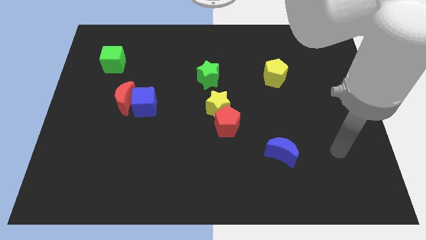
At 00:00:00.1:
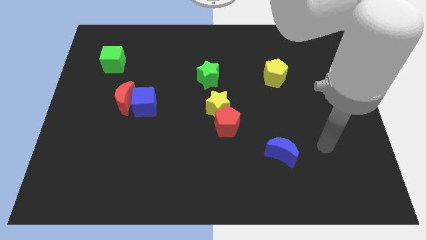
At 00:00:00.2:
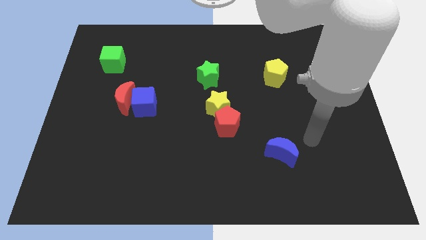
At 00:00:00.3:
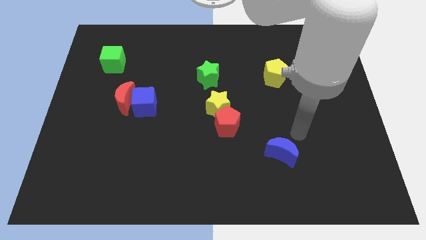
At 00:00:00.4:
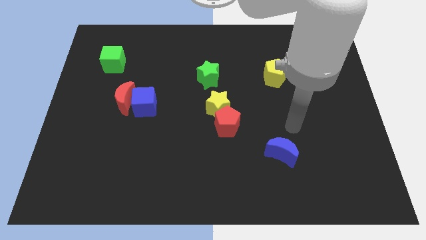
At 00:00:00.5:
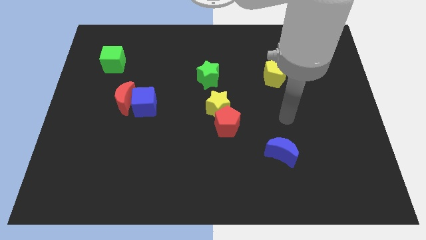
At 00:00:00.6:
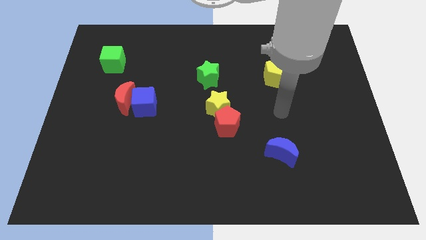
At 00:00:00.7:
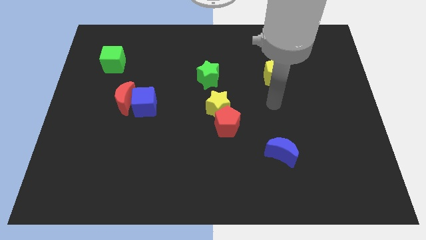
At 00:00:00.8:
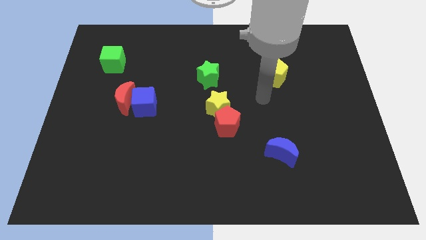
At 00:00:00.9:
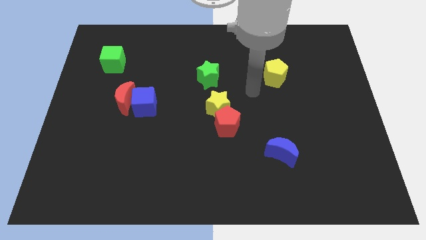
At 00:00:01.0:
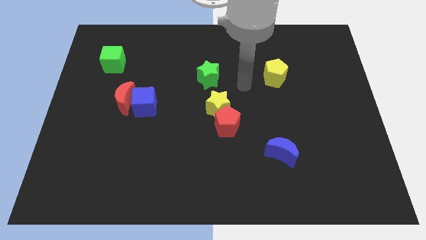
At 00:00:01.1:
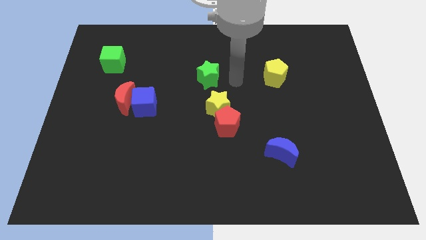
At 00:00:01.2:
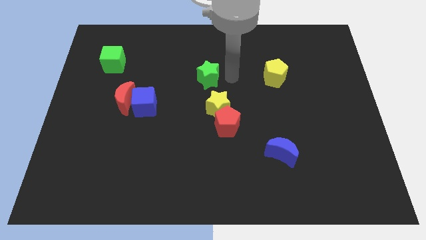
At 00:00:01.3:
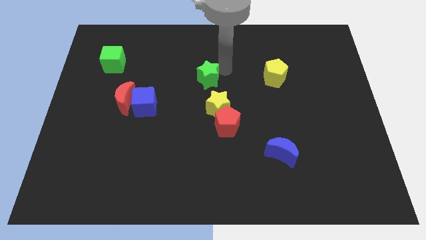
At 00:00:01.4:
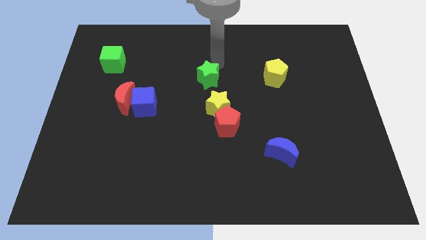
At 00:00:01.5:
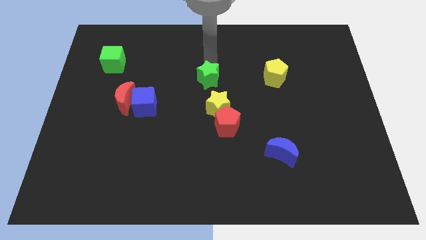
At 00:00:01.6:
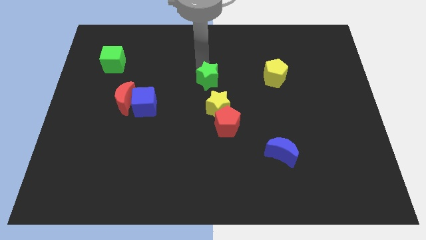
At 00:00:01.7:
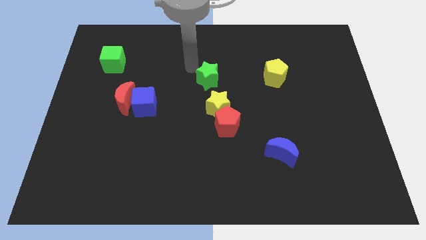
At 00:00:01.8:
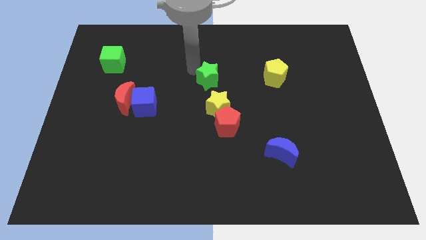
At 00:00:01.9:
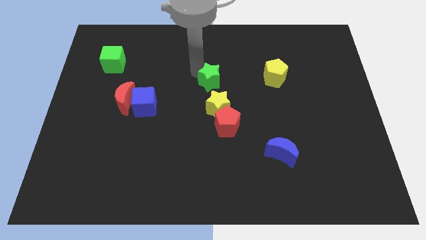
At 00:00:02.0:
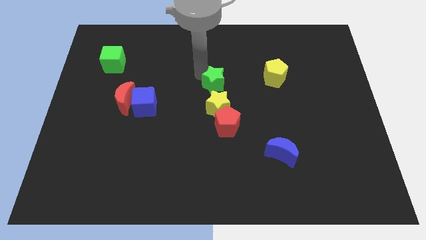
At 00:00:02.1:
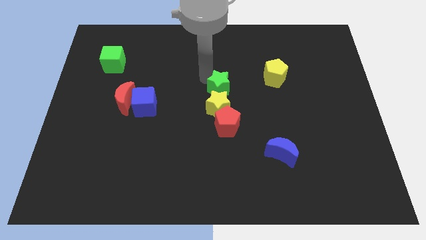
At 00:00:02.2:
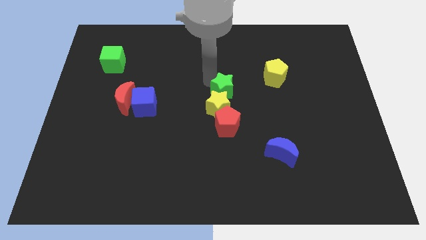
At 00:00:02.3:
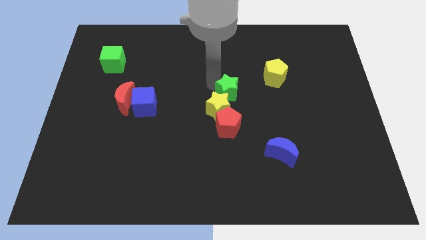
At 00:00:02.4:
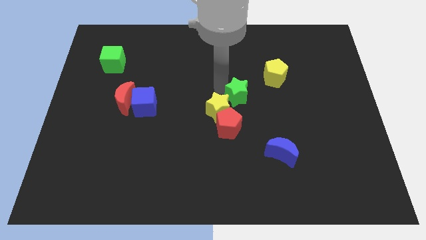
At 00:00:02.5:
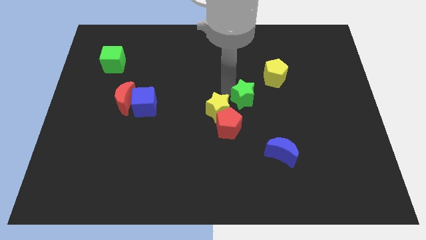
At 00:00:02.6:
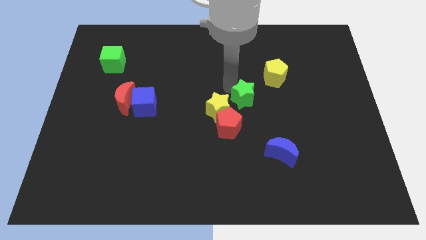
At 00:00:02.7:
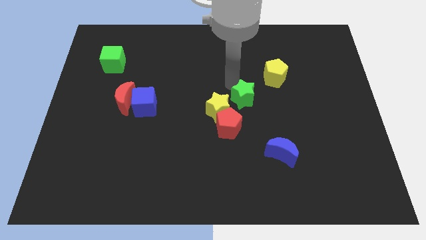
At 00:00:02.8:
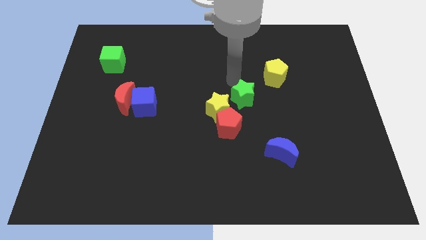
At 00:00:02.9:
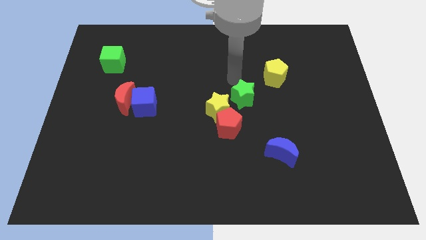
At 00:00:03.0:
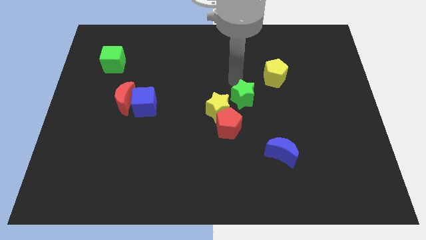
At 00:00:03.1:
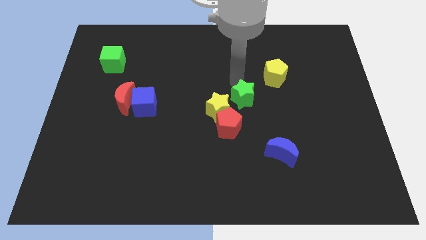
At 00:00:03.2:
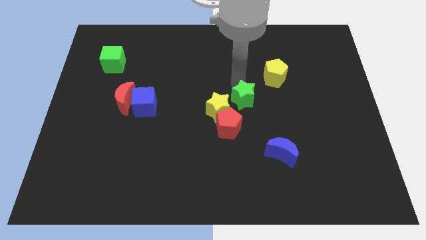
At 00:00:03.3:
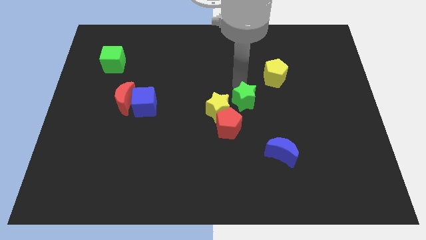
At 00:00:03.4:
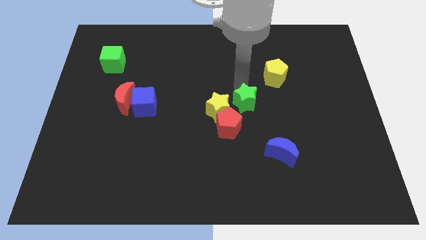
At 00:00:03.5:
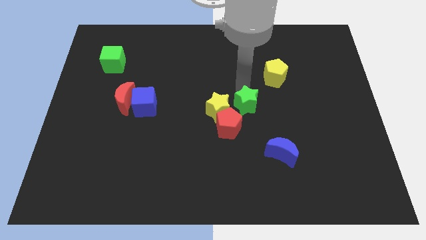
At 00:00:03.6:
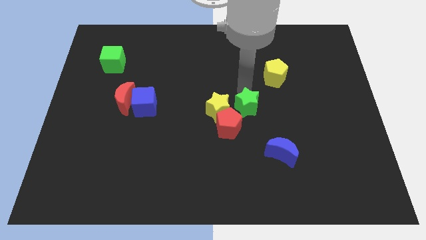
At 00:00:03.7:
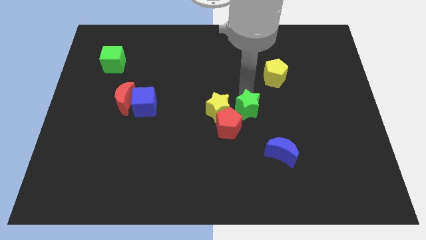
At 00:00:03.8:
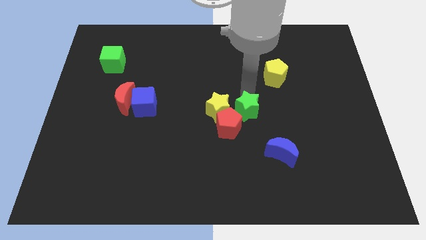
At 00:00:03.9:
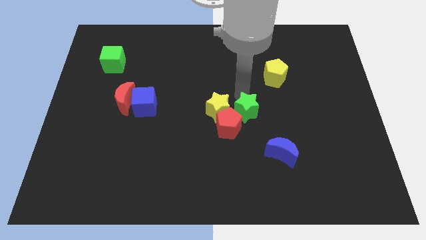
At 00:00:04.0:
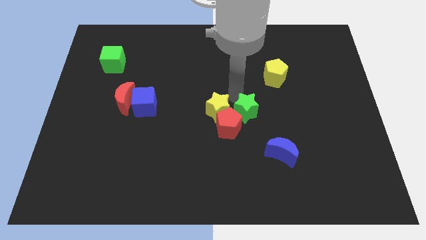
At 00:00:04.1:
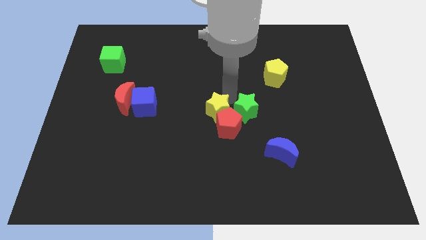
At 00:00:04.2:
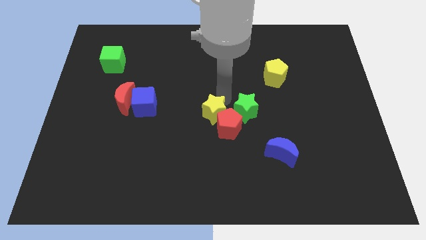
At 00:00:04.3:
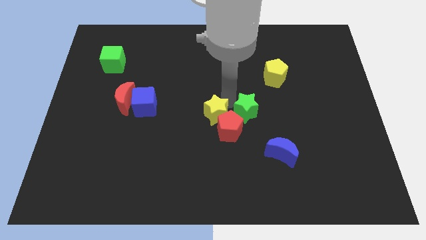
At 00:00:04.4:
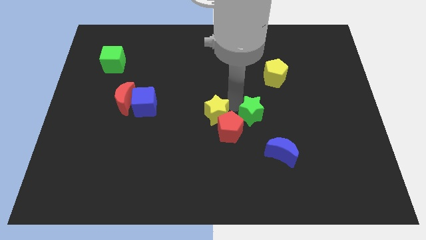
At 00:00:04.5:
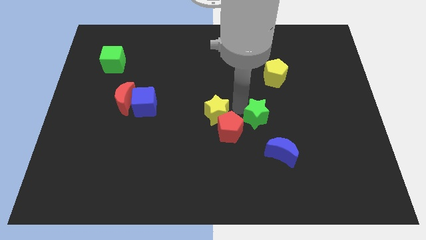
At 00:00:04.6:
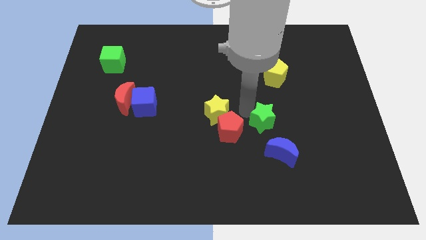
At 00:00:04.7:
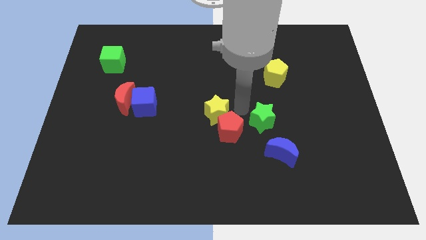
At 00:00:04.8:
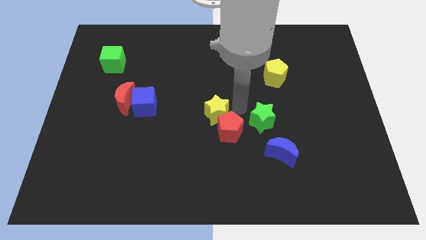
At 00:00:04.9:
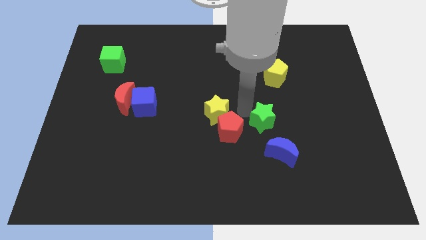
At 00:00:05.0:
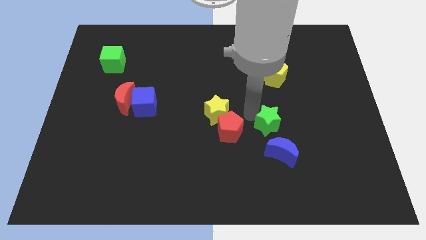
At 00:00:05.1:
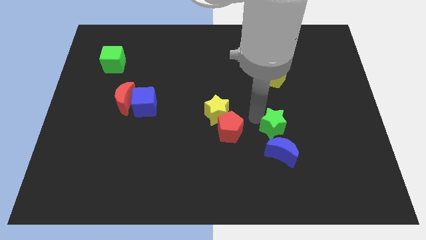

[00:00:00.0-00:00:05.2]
move the green star diagonally downwards and right

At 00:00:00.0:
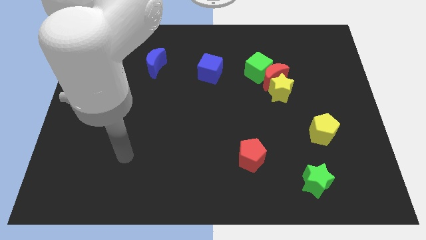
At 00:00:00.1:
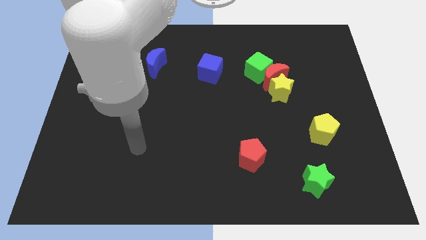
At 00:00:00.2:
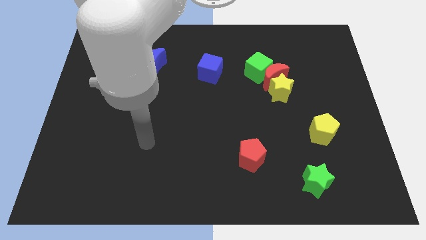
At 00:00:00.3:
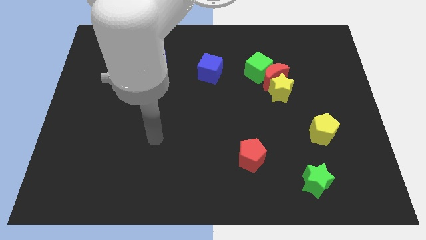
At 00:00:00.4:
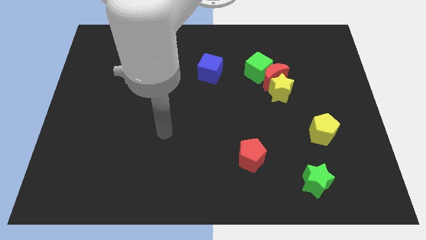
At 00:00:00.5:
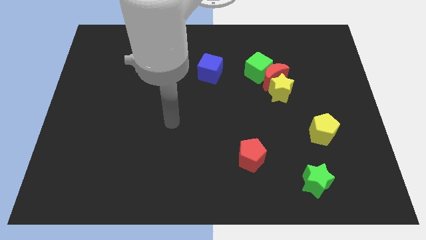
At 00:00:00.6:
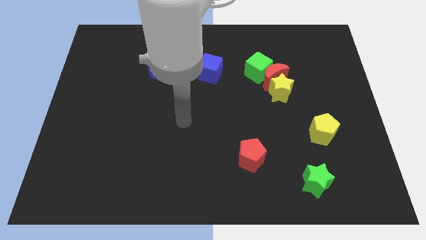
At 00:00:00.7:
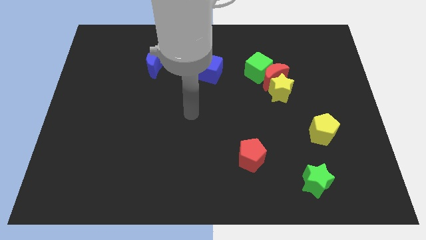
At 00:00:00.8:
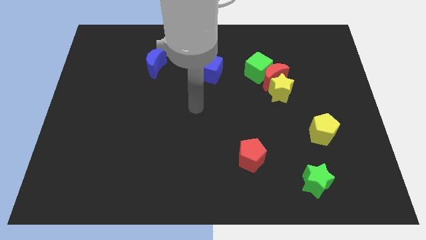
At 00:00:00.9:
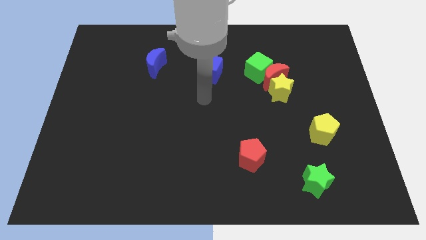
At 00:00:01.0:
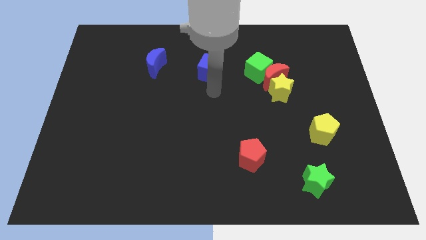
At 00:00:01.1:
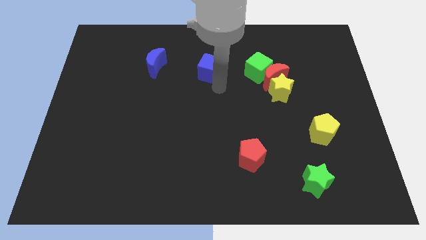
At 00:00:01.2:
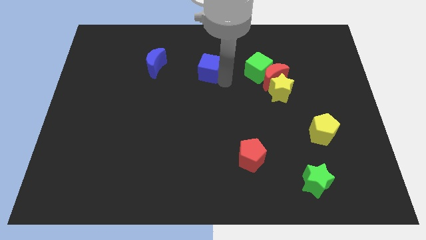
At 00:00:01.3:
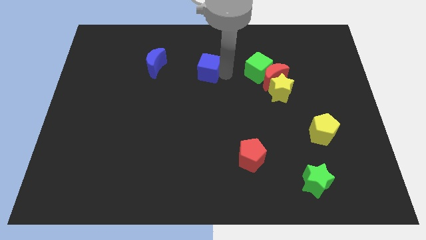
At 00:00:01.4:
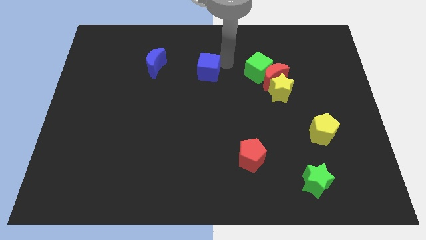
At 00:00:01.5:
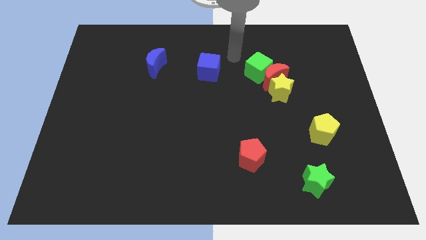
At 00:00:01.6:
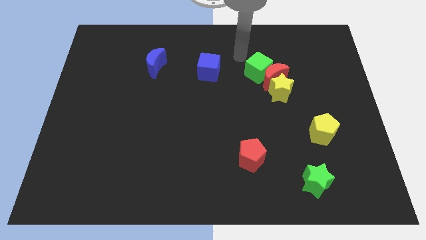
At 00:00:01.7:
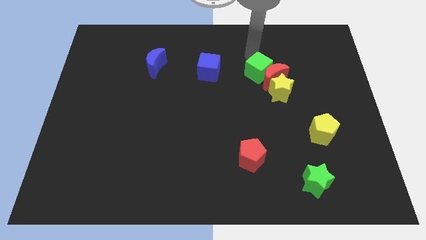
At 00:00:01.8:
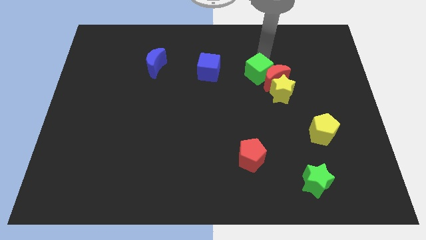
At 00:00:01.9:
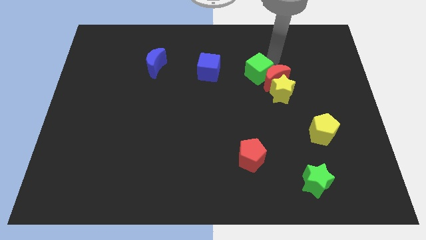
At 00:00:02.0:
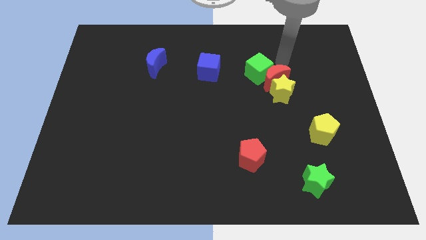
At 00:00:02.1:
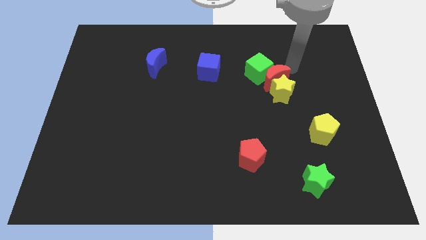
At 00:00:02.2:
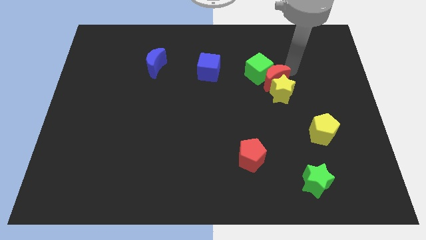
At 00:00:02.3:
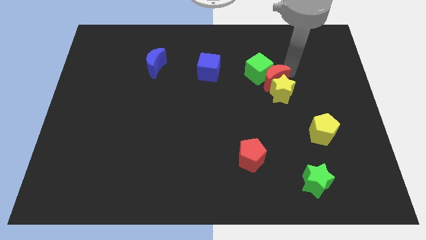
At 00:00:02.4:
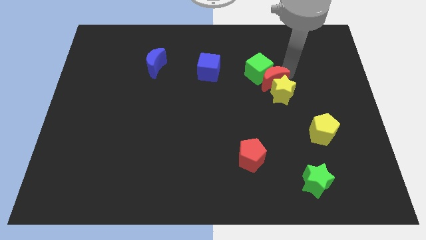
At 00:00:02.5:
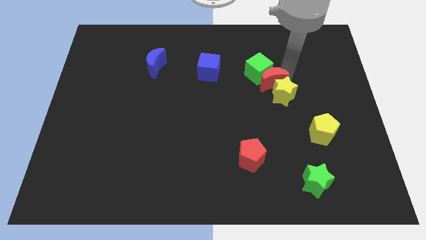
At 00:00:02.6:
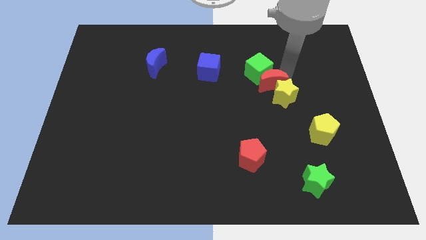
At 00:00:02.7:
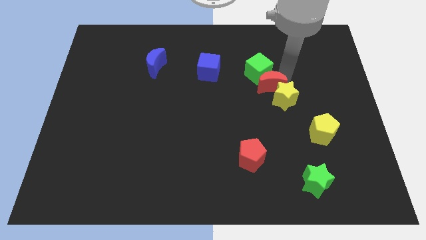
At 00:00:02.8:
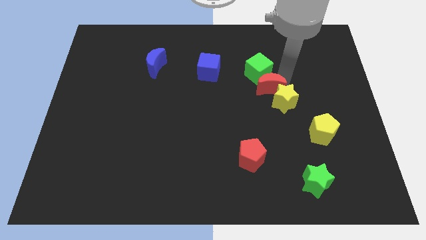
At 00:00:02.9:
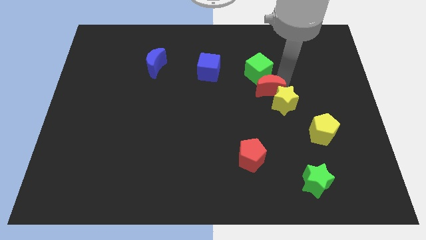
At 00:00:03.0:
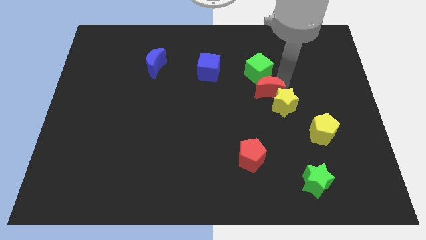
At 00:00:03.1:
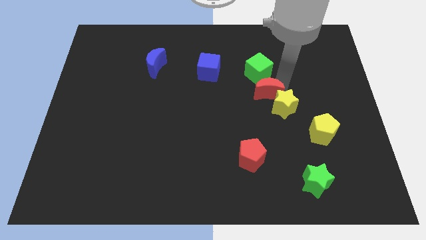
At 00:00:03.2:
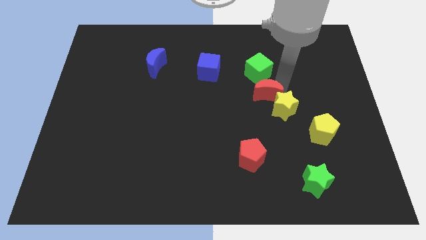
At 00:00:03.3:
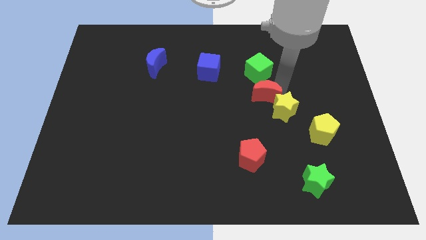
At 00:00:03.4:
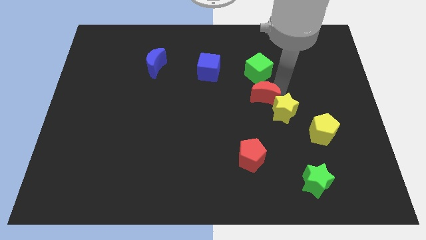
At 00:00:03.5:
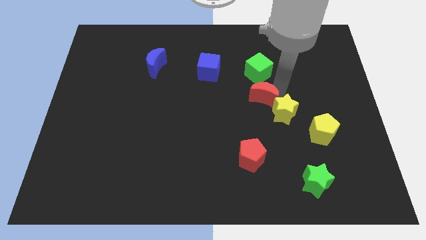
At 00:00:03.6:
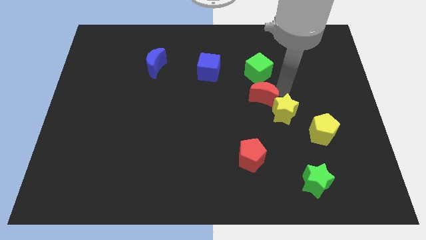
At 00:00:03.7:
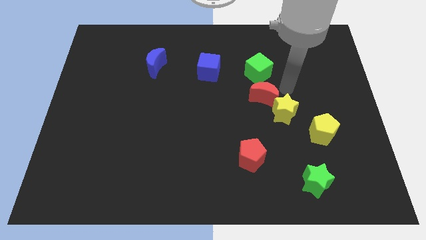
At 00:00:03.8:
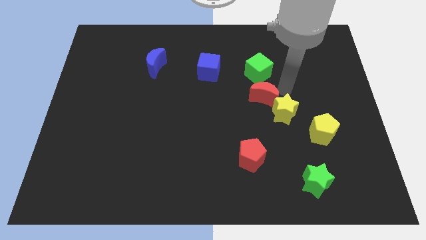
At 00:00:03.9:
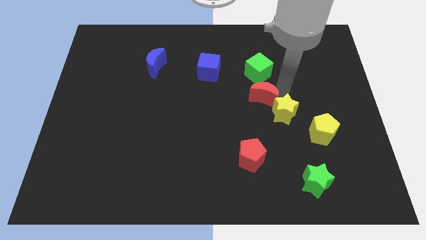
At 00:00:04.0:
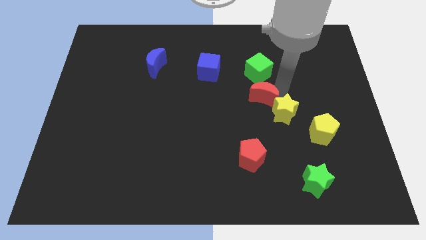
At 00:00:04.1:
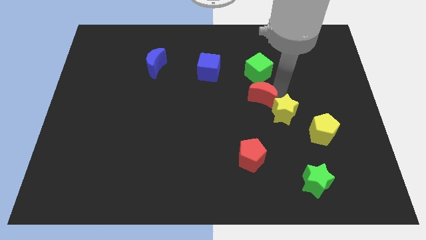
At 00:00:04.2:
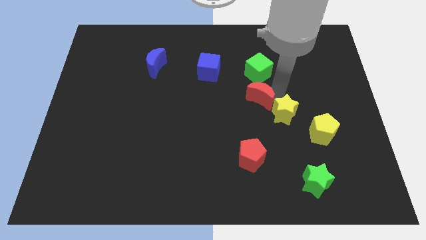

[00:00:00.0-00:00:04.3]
slide the red moon slightly downwards and to the left
